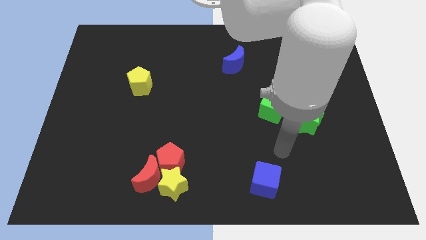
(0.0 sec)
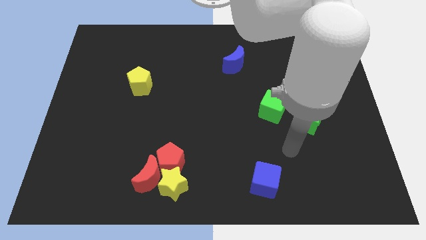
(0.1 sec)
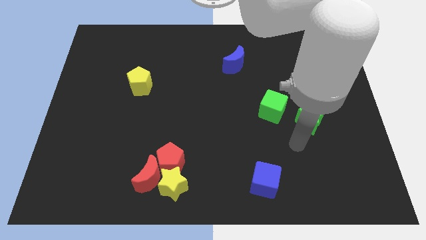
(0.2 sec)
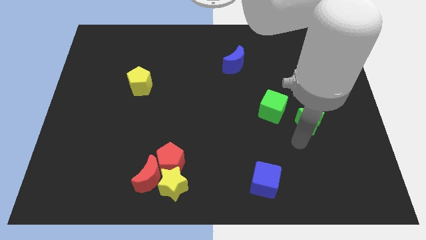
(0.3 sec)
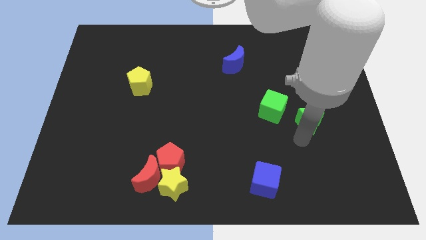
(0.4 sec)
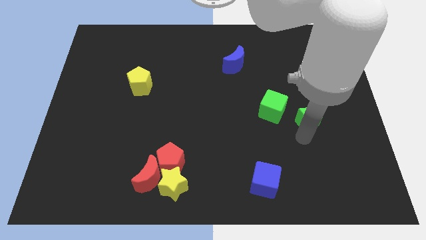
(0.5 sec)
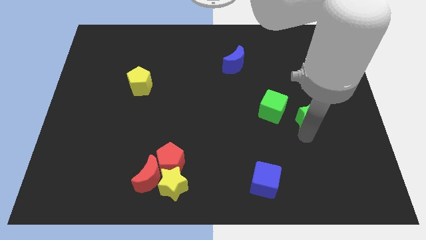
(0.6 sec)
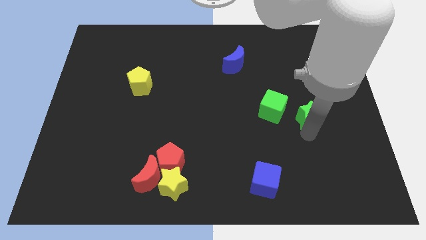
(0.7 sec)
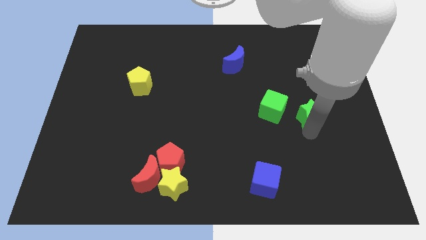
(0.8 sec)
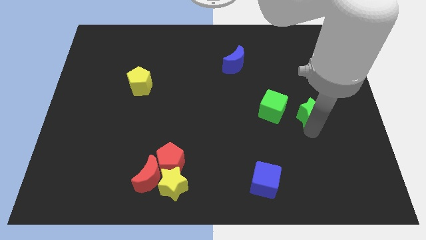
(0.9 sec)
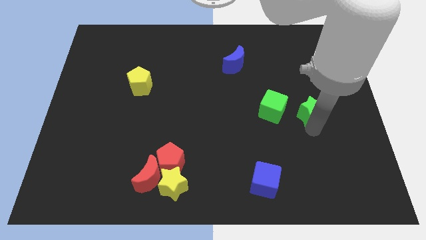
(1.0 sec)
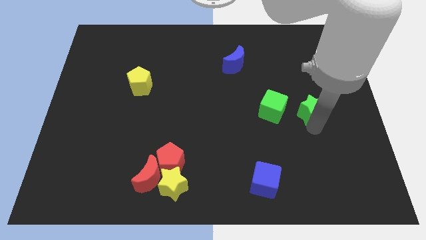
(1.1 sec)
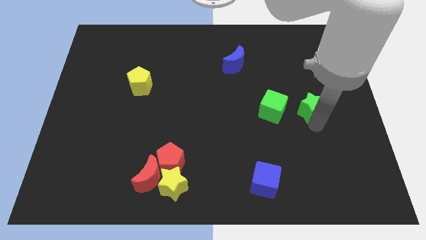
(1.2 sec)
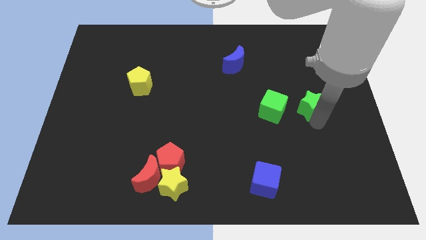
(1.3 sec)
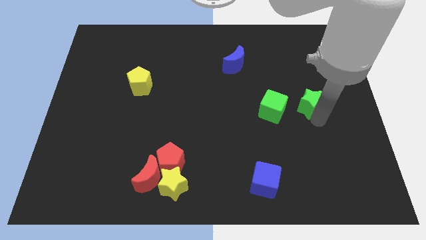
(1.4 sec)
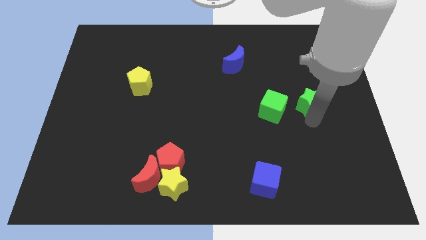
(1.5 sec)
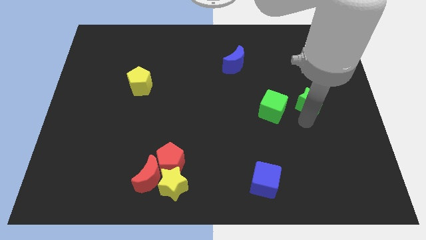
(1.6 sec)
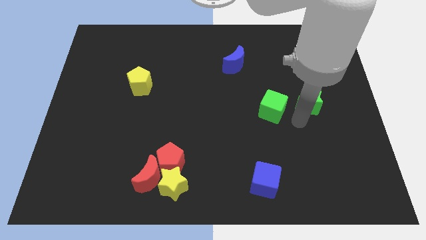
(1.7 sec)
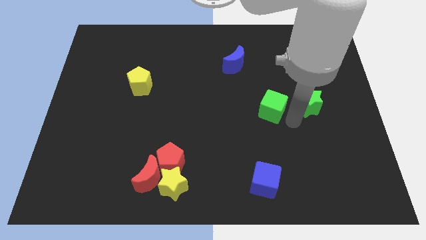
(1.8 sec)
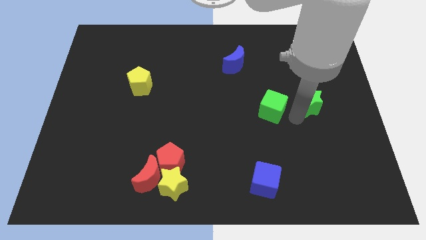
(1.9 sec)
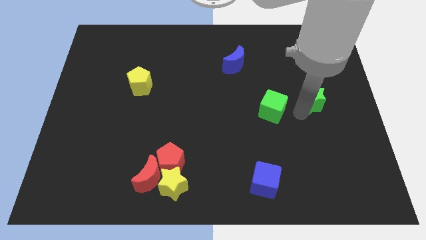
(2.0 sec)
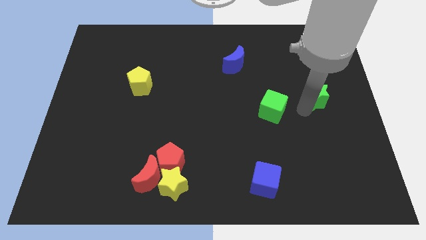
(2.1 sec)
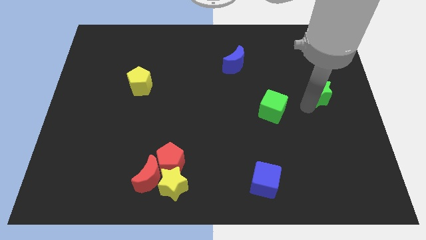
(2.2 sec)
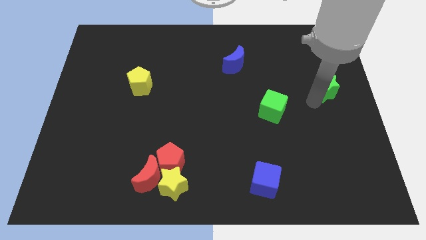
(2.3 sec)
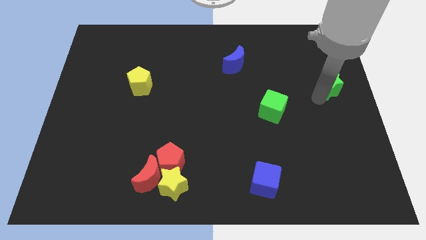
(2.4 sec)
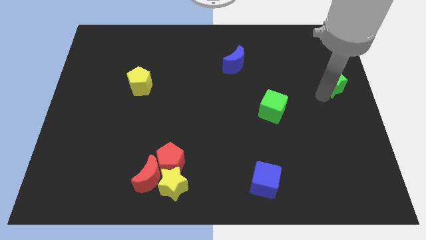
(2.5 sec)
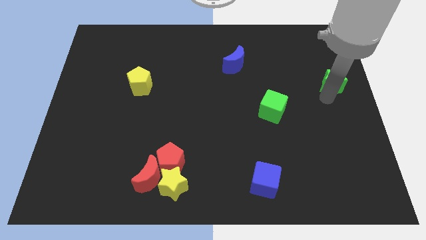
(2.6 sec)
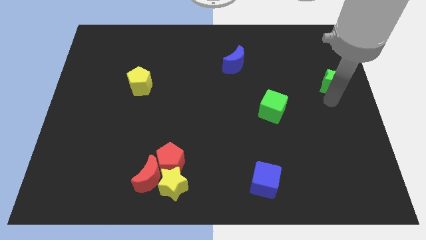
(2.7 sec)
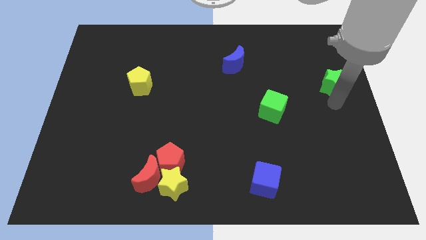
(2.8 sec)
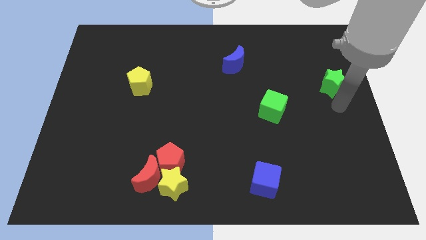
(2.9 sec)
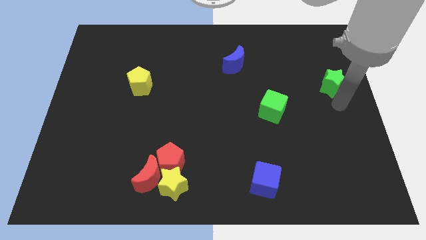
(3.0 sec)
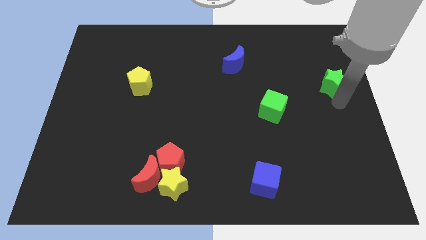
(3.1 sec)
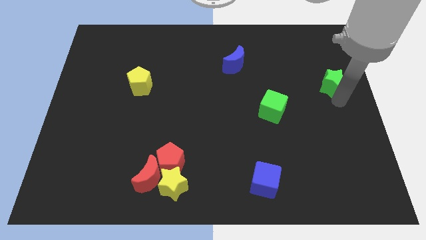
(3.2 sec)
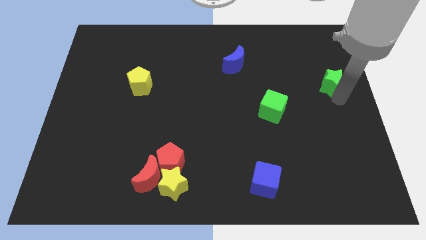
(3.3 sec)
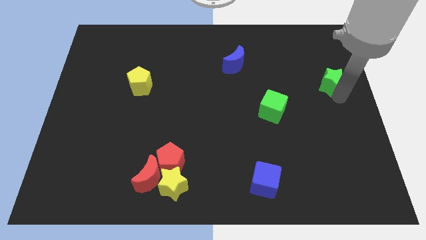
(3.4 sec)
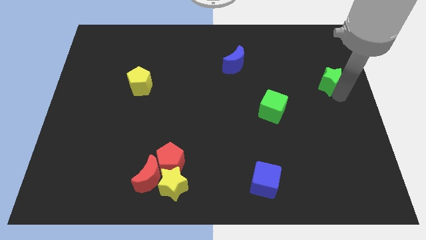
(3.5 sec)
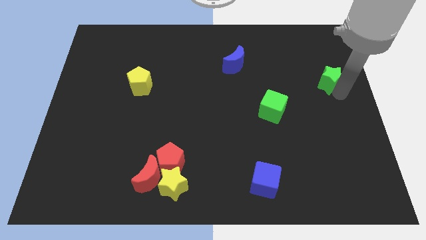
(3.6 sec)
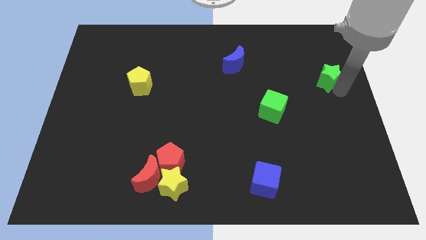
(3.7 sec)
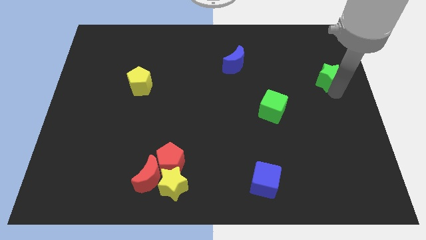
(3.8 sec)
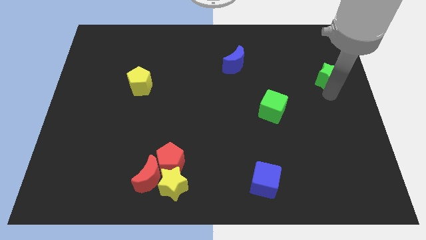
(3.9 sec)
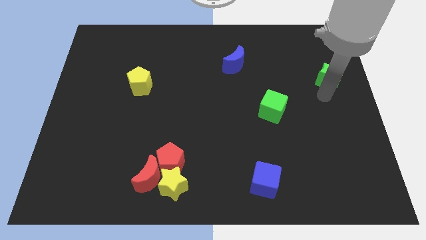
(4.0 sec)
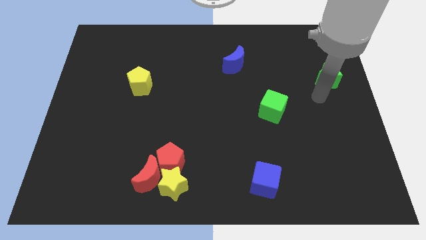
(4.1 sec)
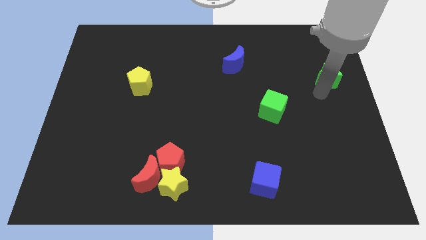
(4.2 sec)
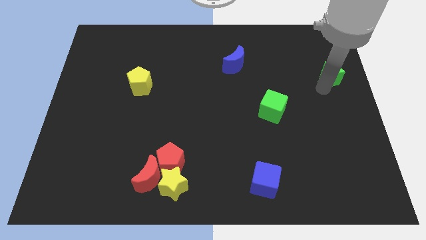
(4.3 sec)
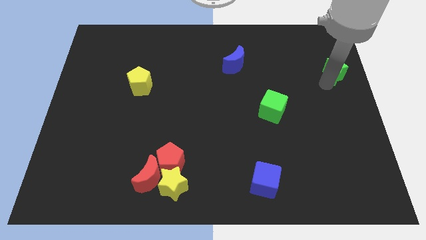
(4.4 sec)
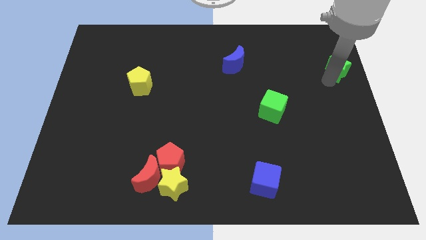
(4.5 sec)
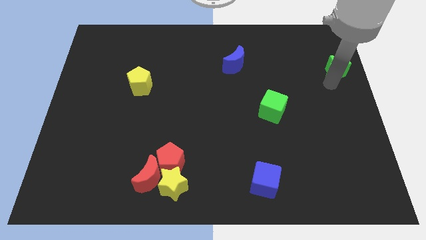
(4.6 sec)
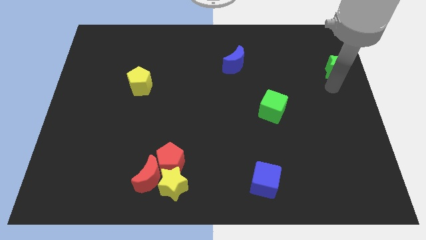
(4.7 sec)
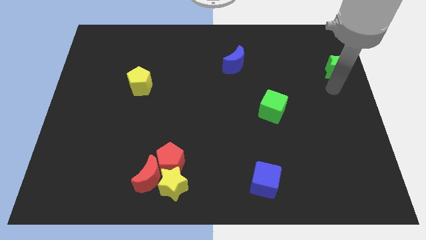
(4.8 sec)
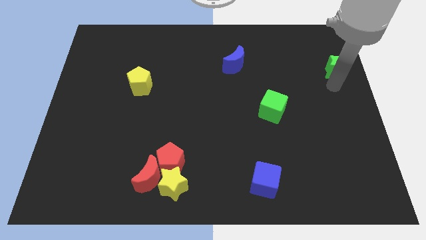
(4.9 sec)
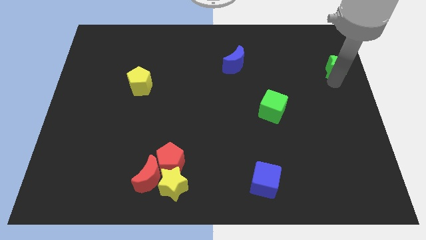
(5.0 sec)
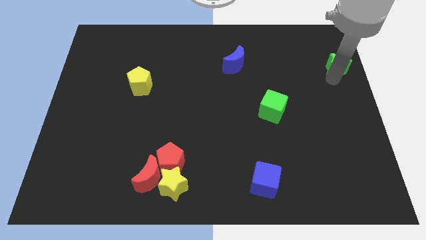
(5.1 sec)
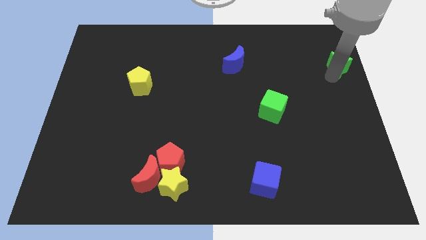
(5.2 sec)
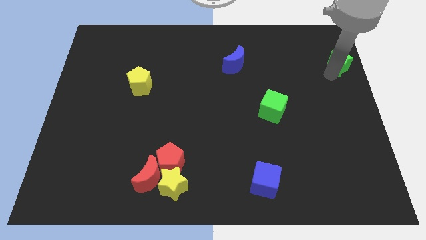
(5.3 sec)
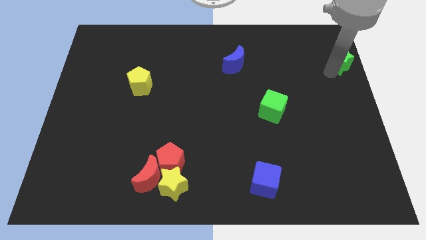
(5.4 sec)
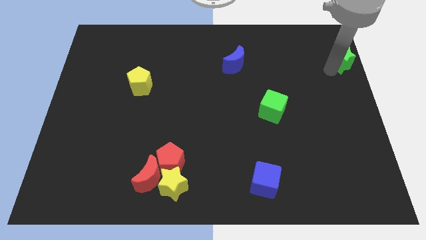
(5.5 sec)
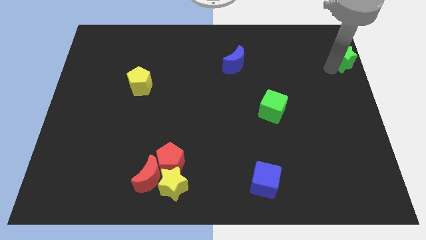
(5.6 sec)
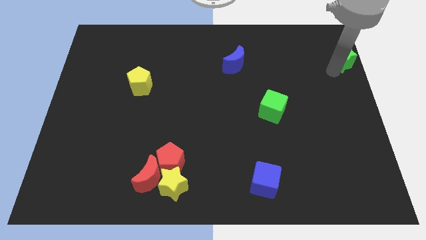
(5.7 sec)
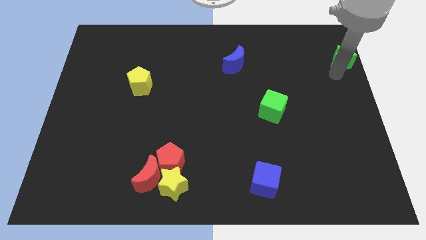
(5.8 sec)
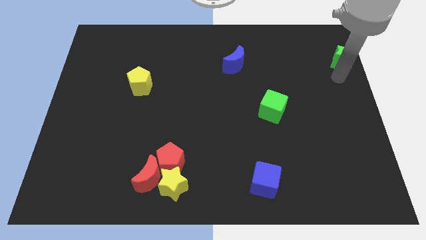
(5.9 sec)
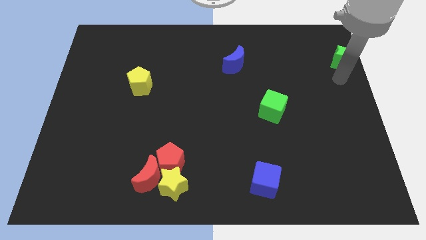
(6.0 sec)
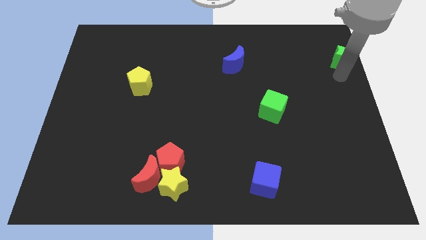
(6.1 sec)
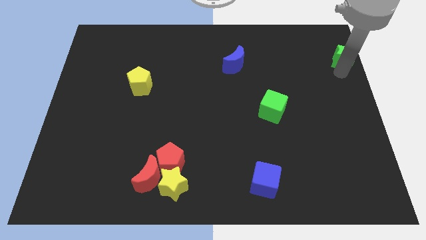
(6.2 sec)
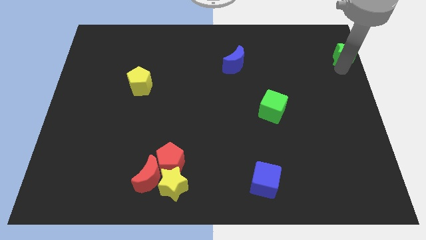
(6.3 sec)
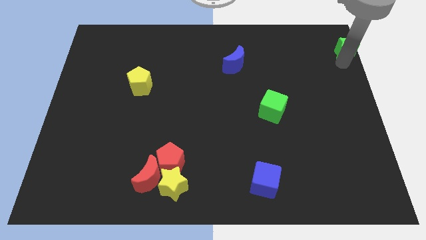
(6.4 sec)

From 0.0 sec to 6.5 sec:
push the green star to the top right corner
